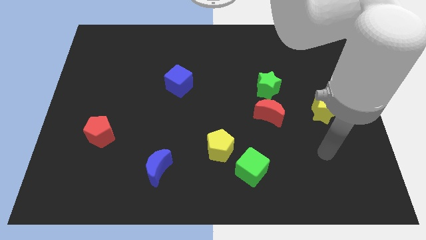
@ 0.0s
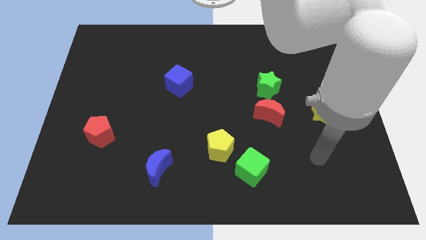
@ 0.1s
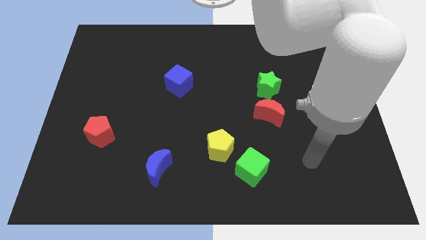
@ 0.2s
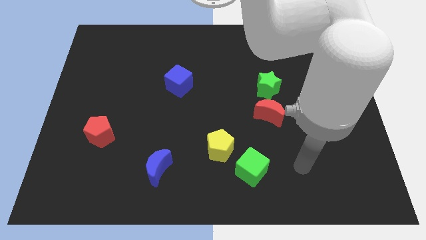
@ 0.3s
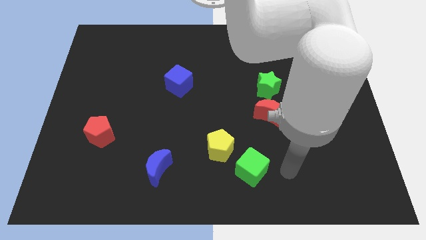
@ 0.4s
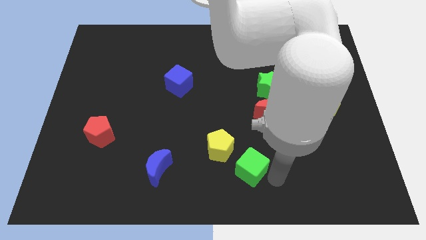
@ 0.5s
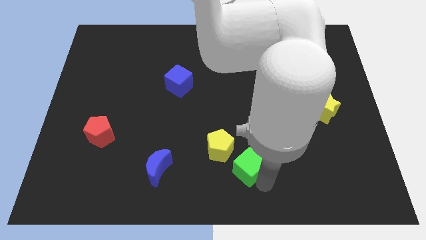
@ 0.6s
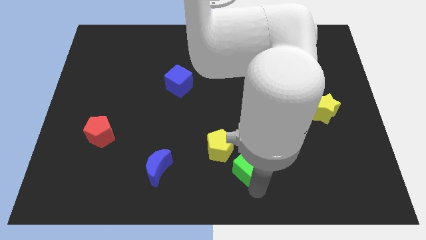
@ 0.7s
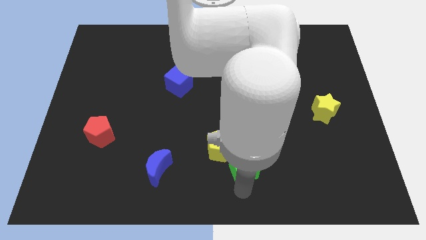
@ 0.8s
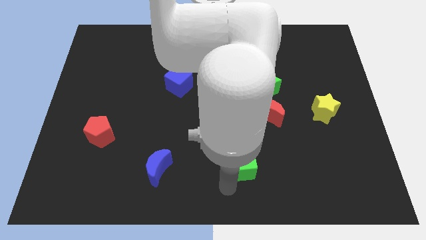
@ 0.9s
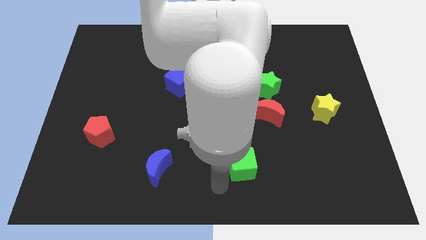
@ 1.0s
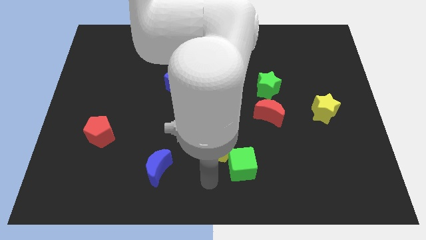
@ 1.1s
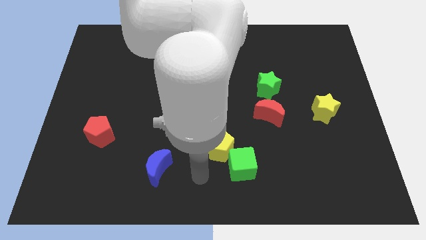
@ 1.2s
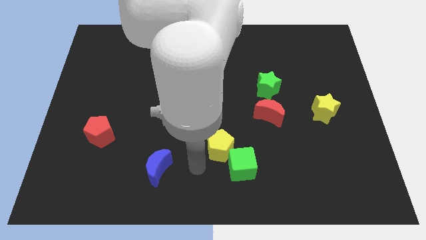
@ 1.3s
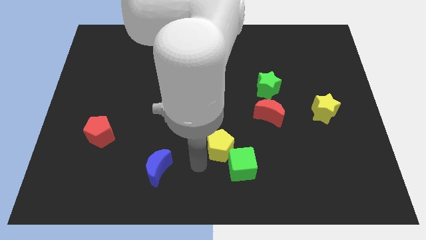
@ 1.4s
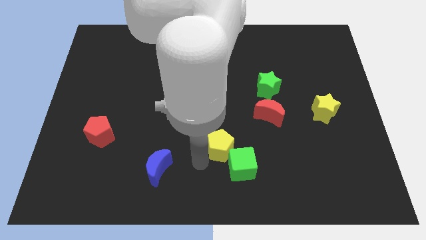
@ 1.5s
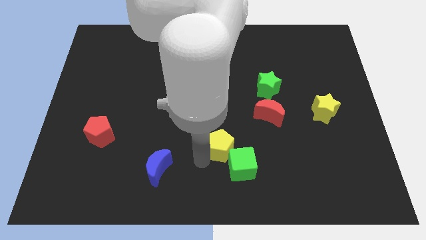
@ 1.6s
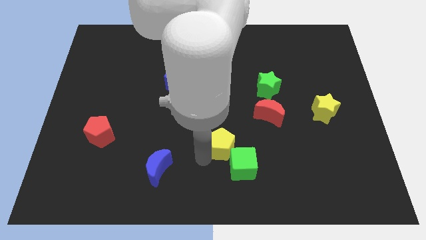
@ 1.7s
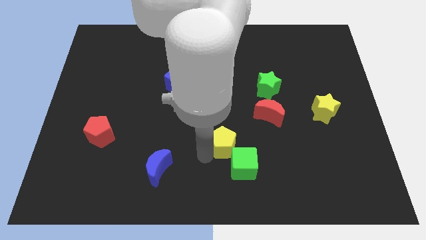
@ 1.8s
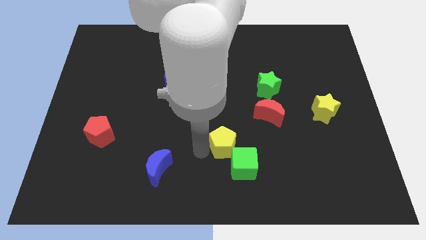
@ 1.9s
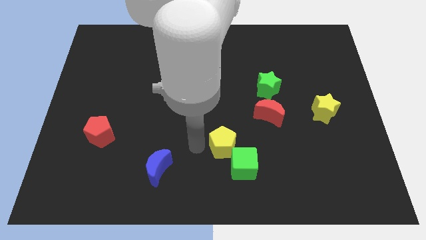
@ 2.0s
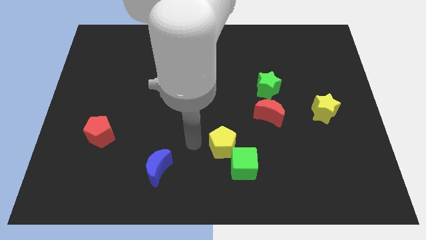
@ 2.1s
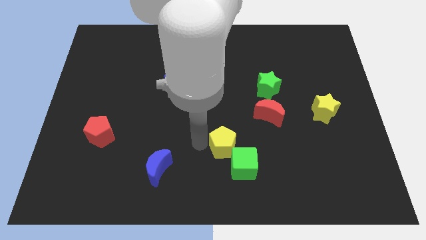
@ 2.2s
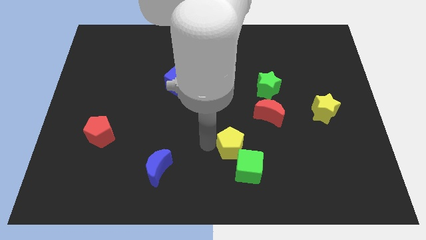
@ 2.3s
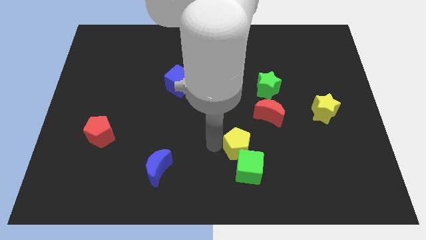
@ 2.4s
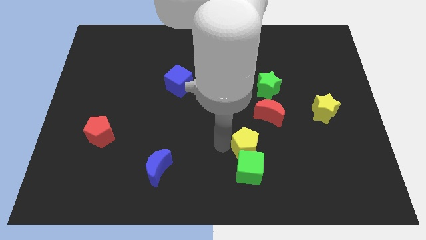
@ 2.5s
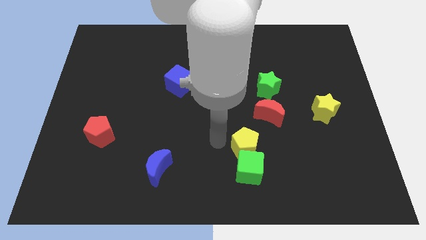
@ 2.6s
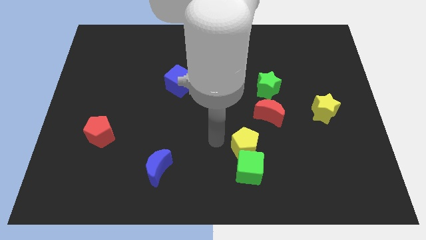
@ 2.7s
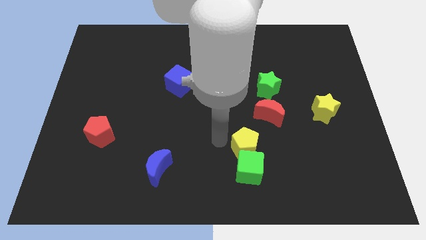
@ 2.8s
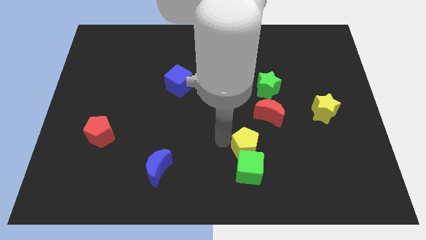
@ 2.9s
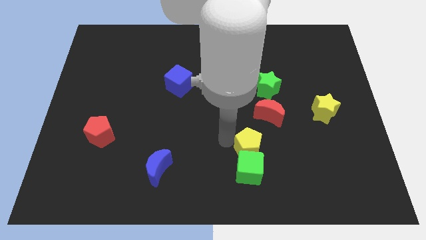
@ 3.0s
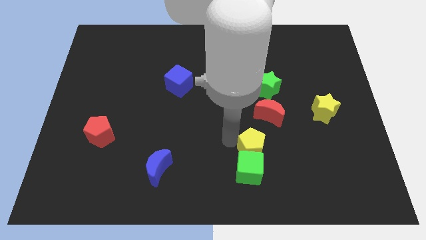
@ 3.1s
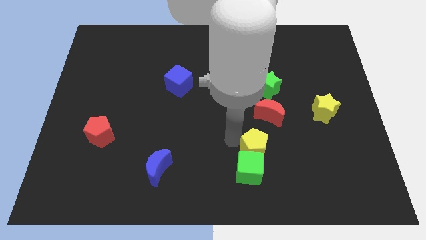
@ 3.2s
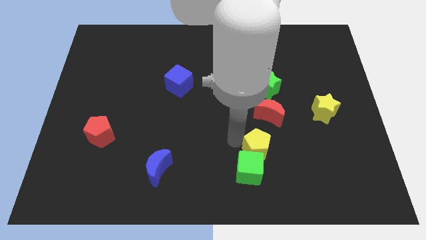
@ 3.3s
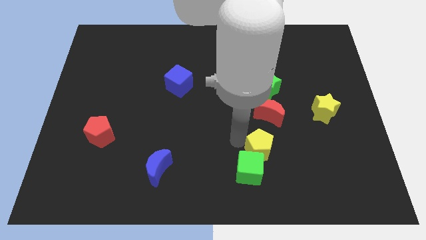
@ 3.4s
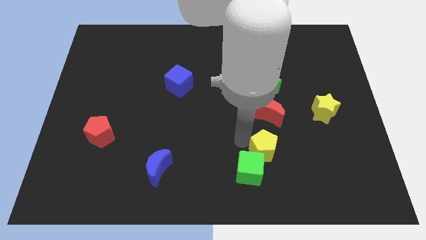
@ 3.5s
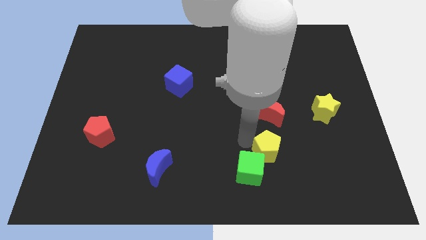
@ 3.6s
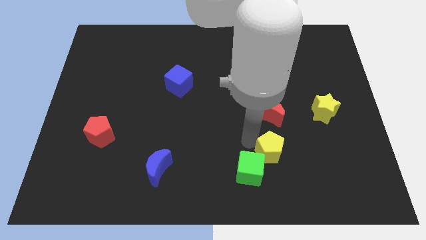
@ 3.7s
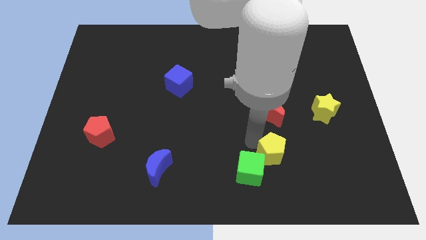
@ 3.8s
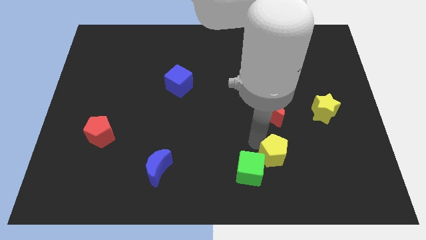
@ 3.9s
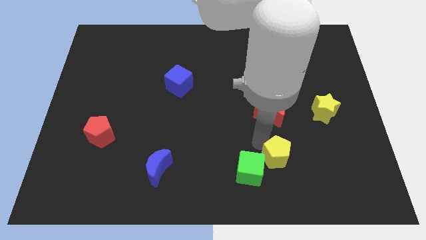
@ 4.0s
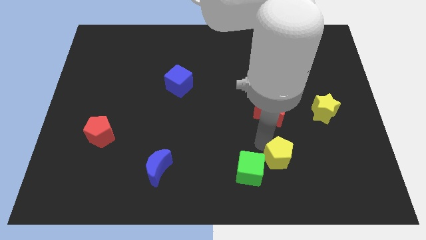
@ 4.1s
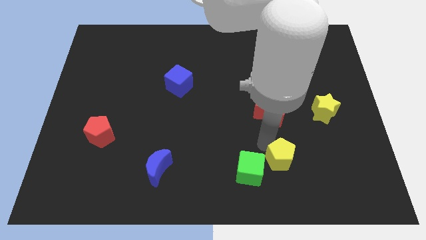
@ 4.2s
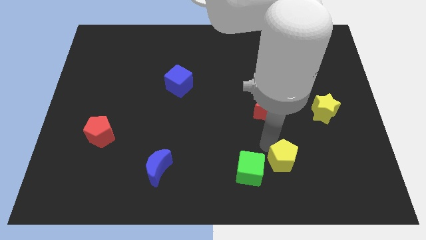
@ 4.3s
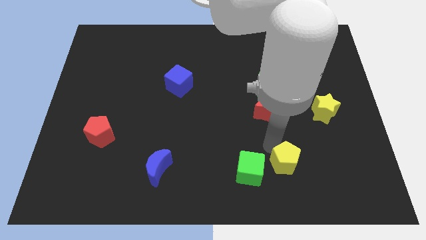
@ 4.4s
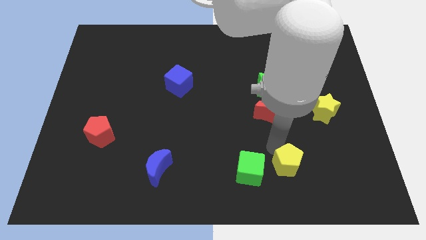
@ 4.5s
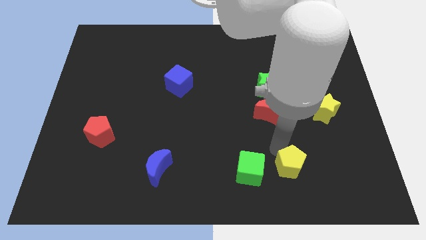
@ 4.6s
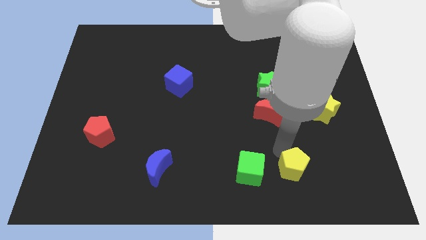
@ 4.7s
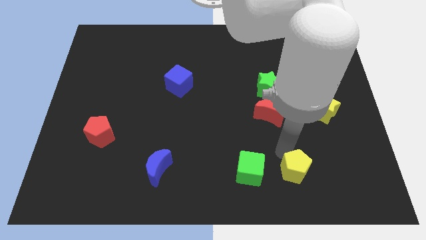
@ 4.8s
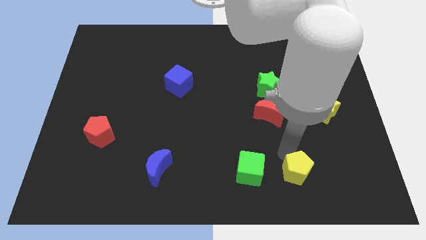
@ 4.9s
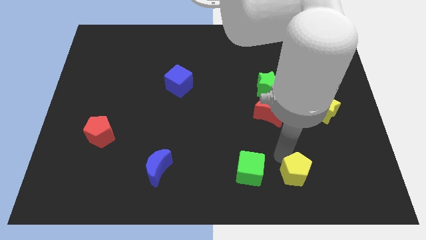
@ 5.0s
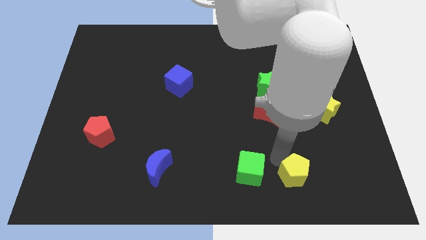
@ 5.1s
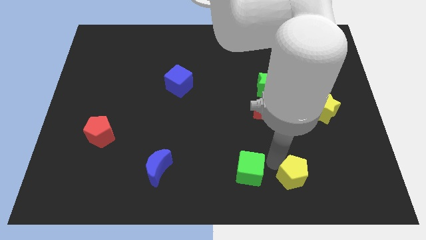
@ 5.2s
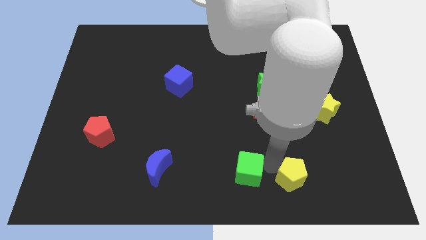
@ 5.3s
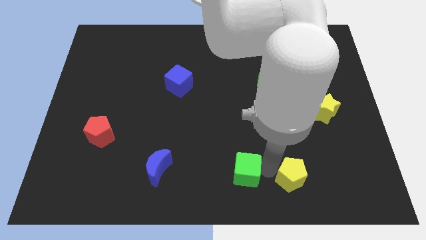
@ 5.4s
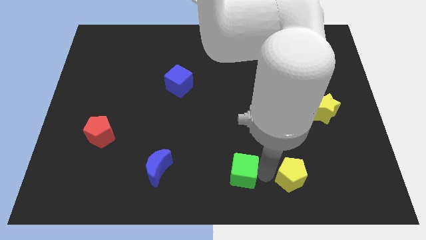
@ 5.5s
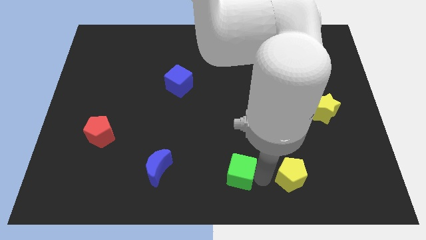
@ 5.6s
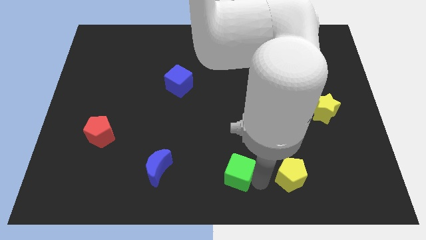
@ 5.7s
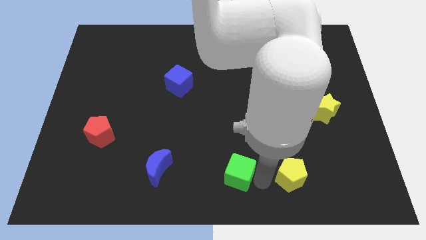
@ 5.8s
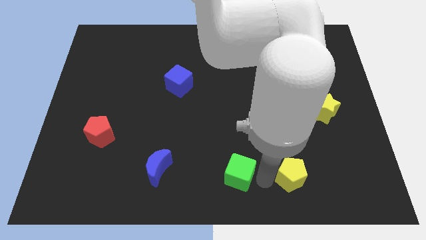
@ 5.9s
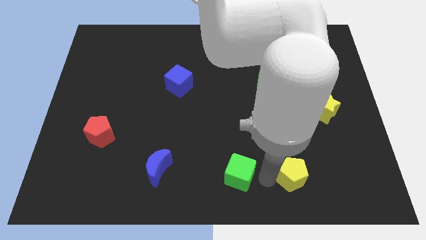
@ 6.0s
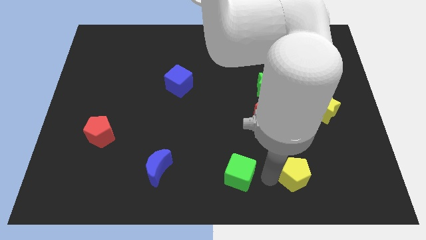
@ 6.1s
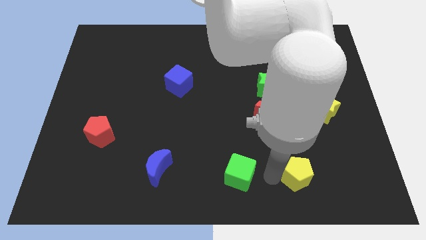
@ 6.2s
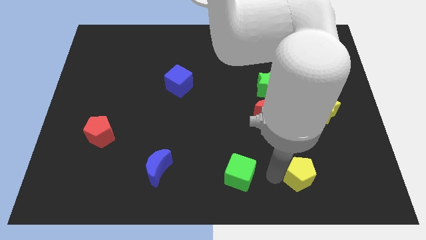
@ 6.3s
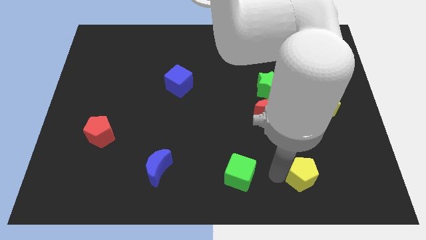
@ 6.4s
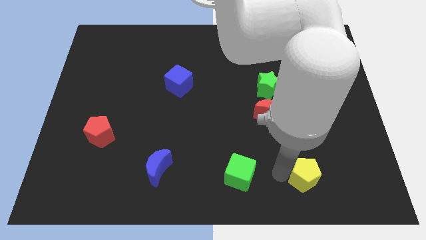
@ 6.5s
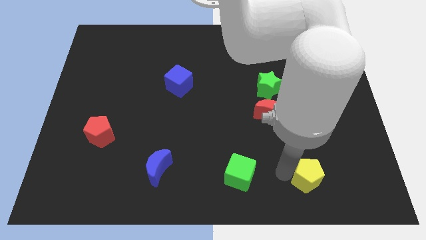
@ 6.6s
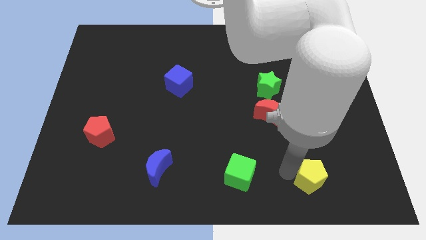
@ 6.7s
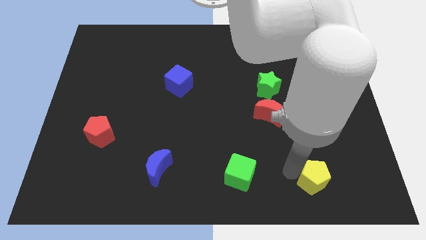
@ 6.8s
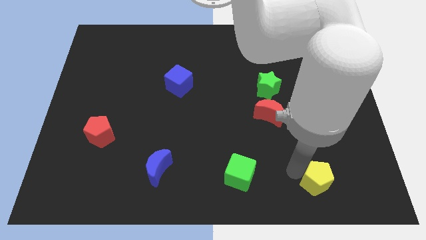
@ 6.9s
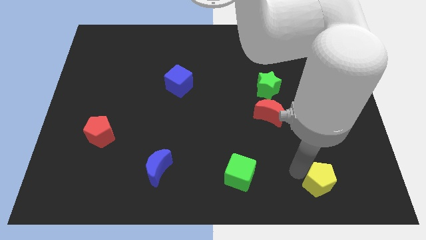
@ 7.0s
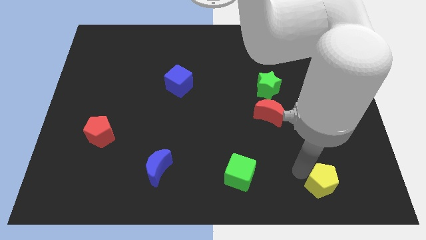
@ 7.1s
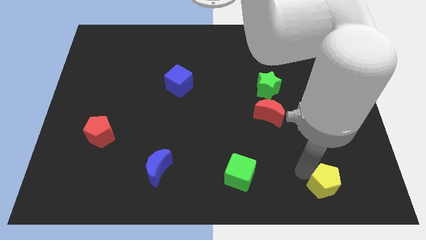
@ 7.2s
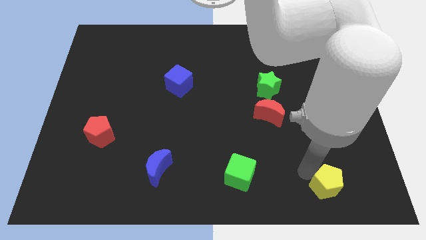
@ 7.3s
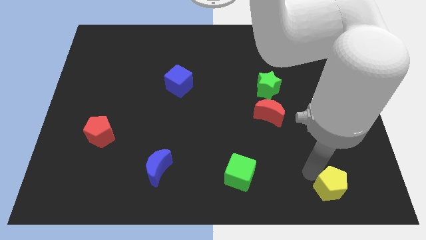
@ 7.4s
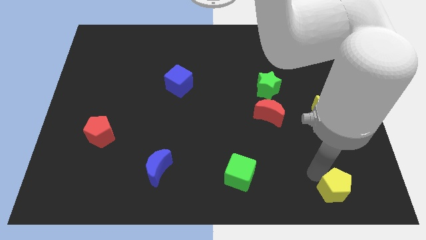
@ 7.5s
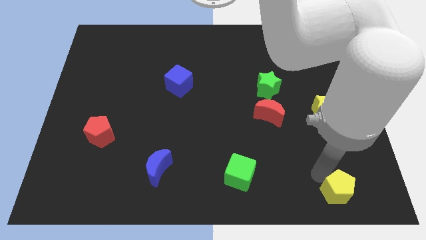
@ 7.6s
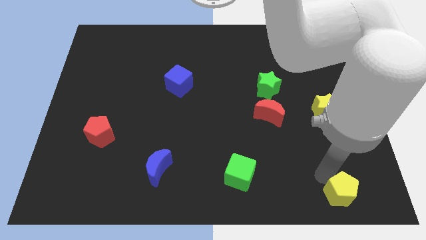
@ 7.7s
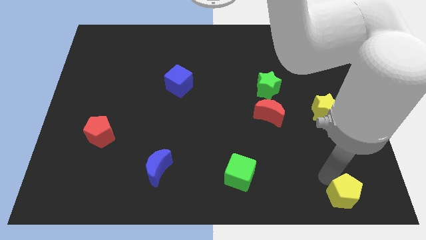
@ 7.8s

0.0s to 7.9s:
move the yellow pentagon to the bottom right of the board

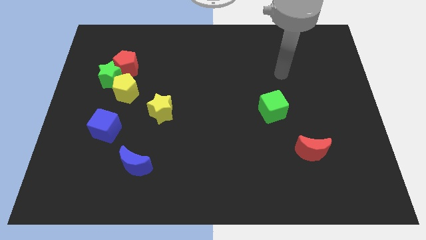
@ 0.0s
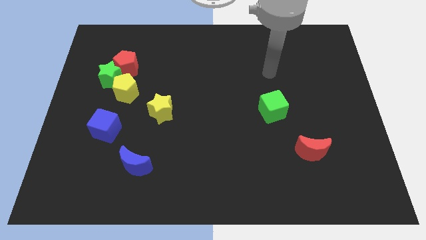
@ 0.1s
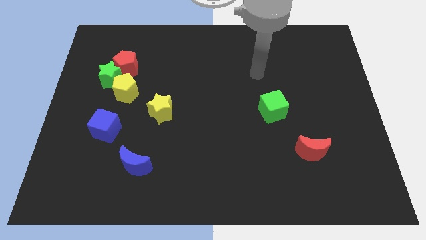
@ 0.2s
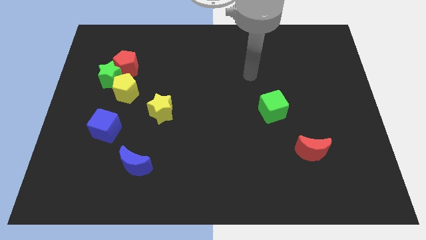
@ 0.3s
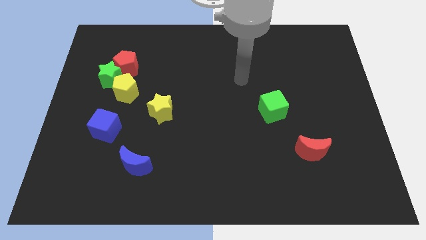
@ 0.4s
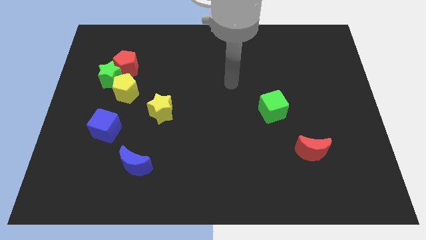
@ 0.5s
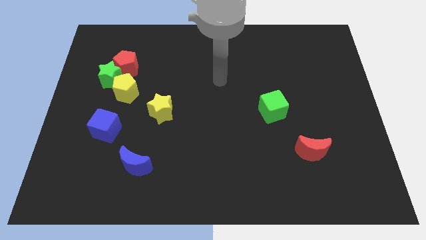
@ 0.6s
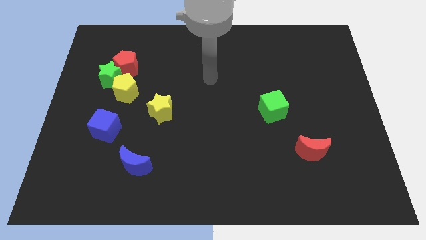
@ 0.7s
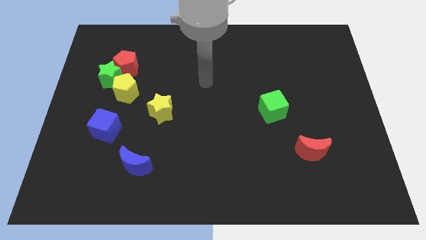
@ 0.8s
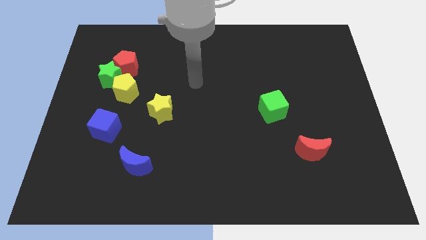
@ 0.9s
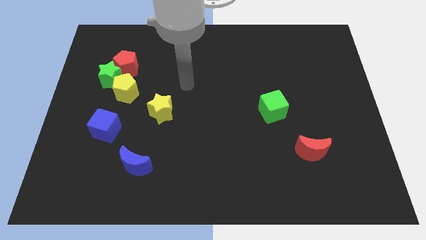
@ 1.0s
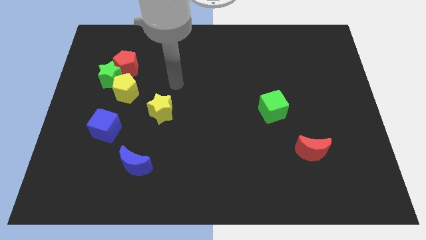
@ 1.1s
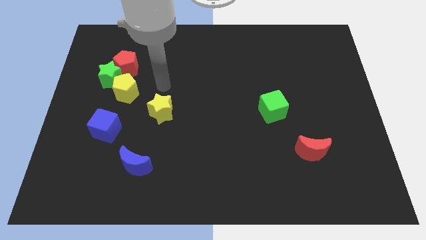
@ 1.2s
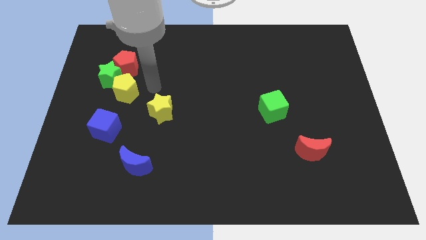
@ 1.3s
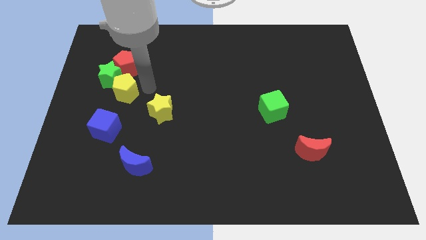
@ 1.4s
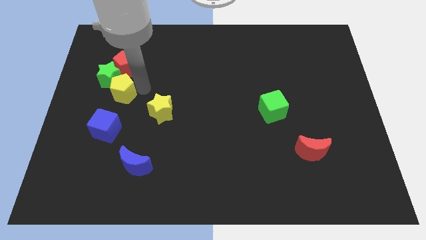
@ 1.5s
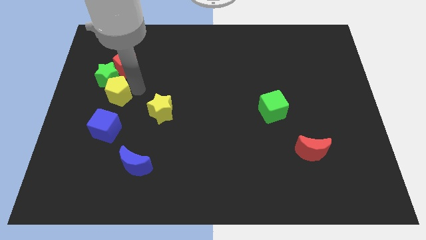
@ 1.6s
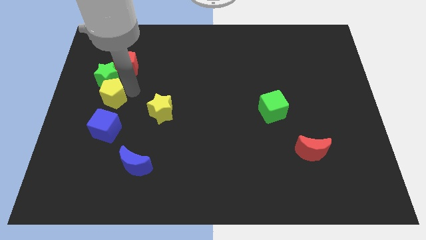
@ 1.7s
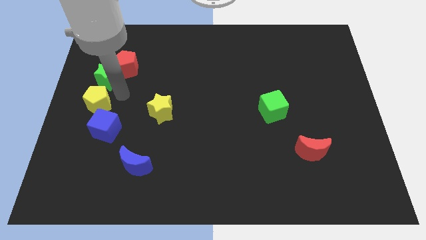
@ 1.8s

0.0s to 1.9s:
slide the yellow pentagon to the left side of the board
